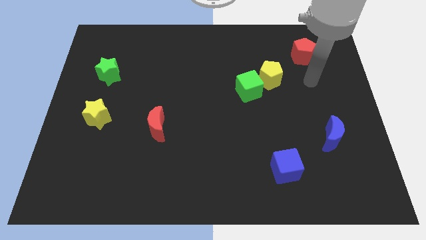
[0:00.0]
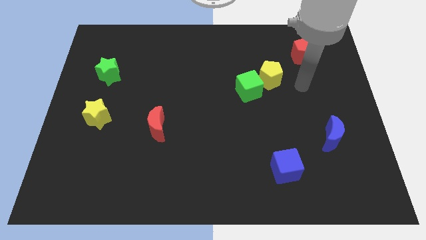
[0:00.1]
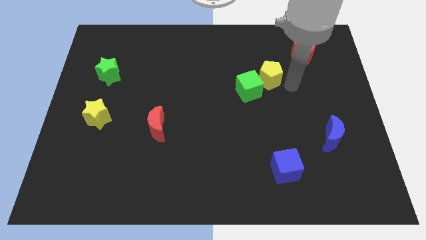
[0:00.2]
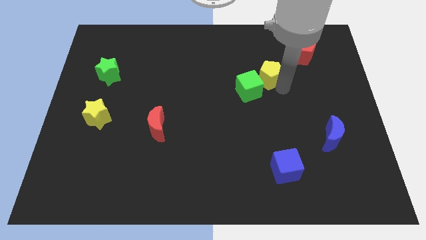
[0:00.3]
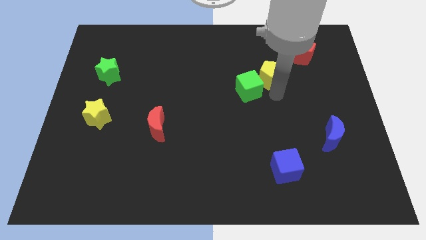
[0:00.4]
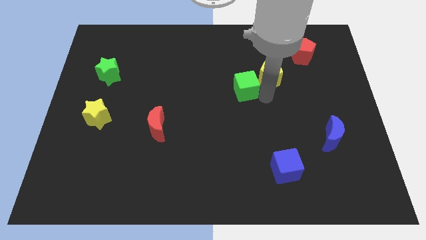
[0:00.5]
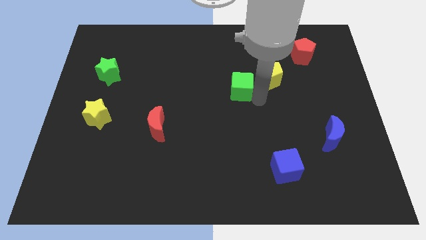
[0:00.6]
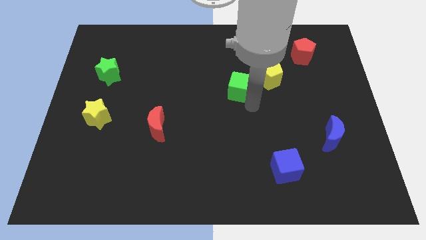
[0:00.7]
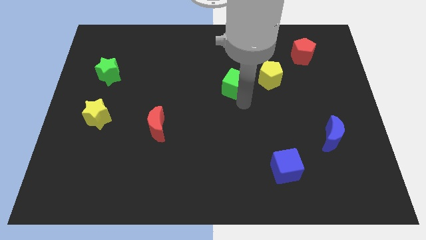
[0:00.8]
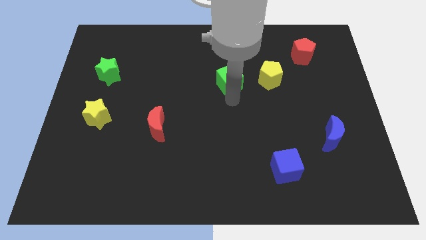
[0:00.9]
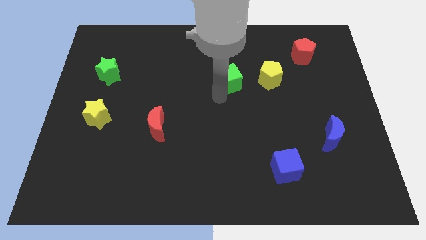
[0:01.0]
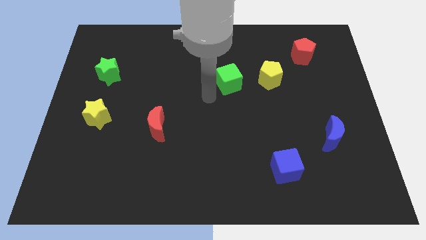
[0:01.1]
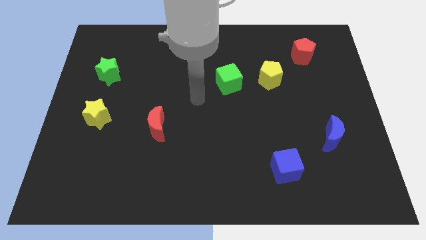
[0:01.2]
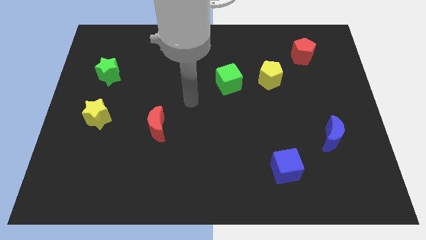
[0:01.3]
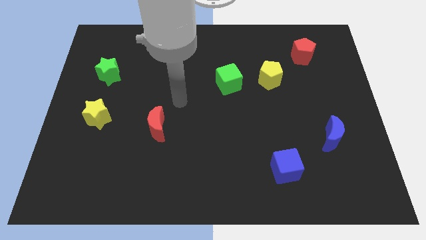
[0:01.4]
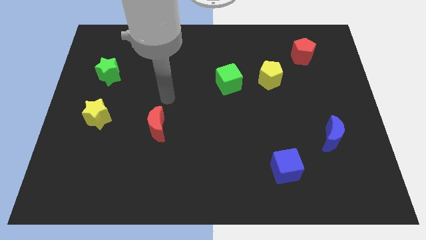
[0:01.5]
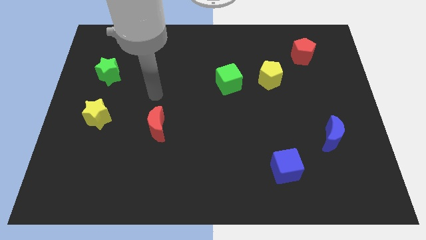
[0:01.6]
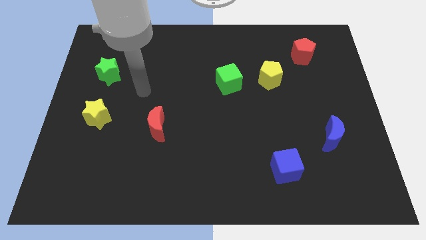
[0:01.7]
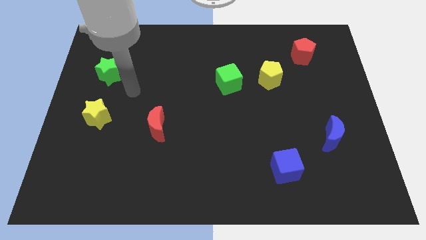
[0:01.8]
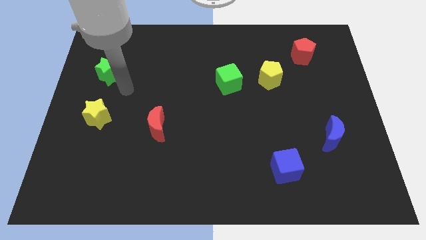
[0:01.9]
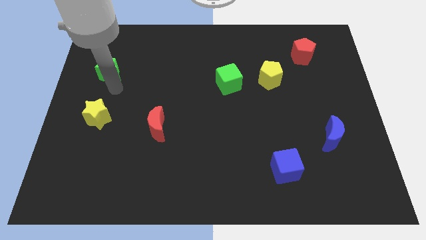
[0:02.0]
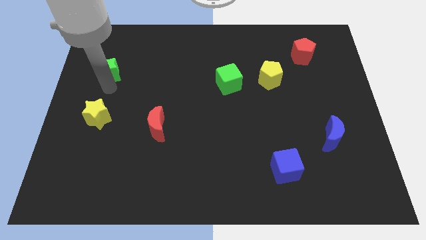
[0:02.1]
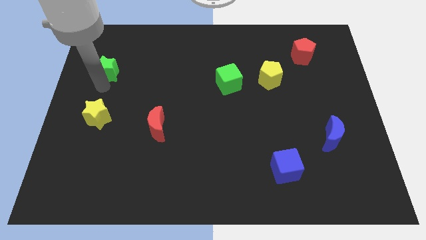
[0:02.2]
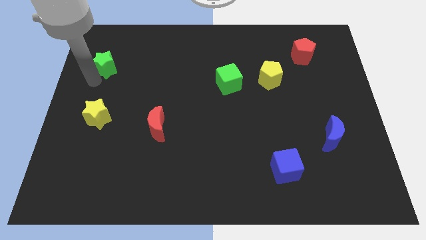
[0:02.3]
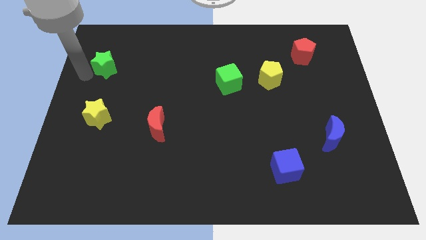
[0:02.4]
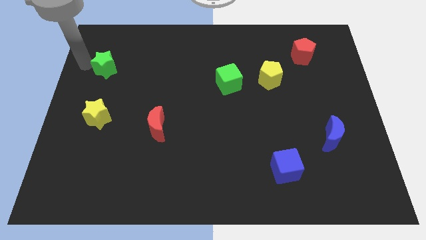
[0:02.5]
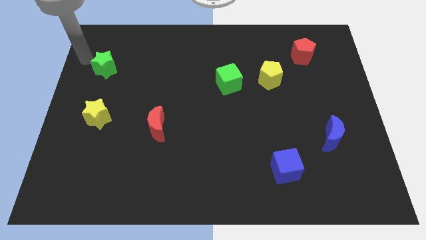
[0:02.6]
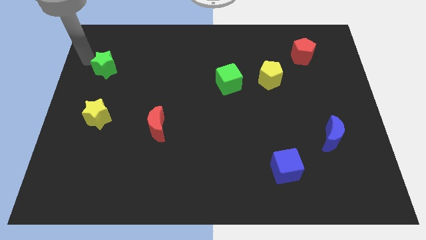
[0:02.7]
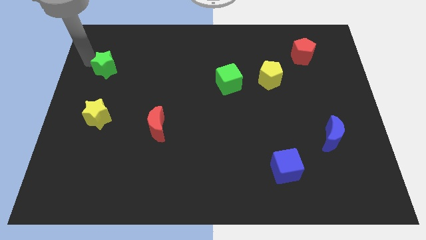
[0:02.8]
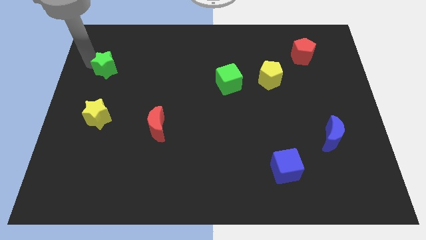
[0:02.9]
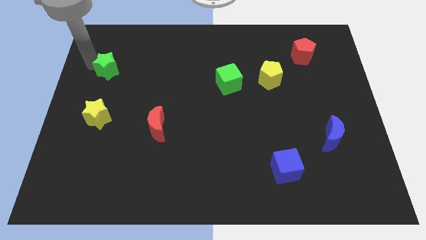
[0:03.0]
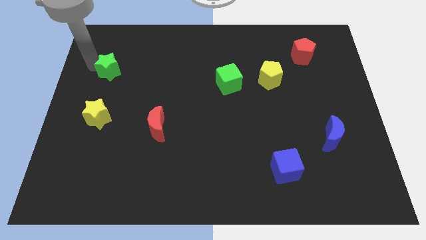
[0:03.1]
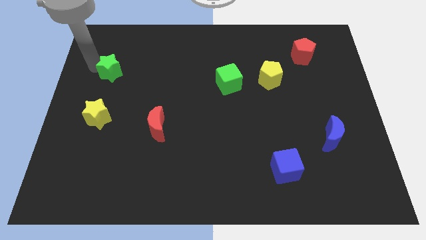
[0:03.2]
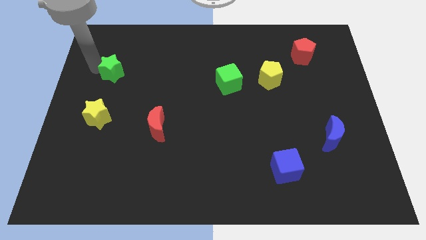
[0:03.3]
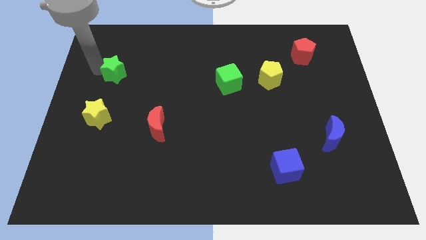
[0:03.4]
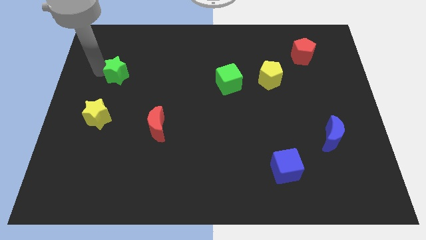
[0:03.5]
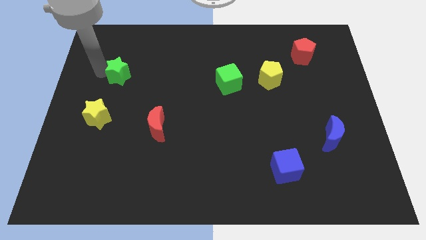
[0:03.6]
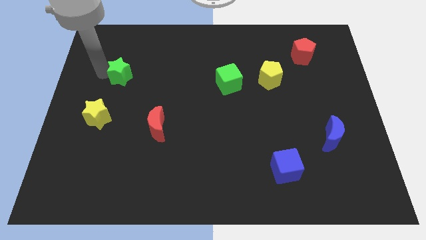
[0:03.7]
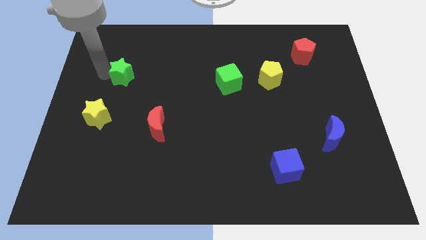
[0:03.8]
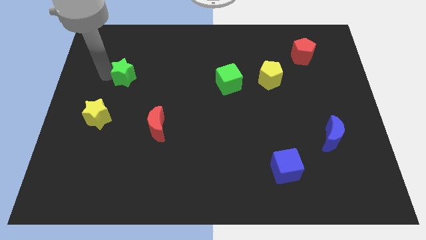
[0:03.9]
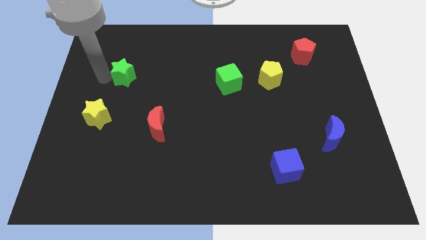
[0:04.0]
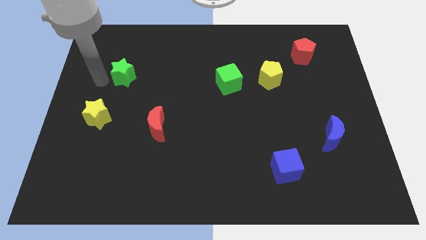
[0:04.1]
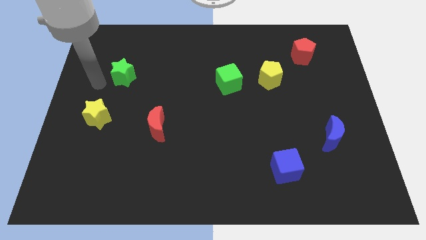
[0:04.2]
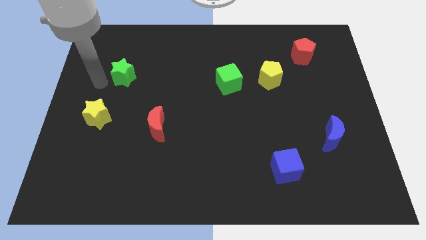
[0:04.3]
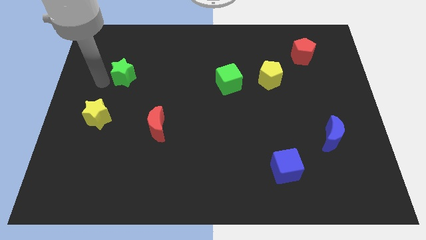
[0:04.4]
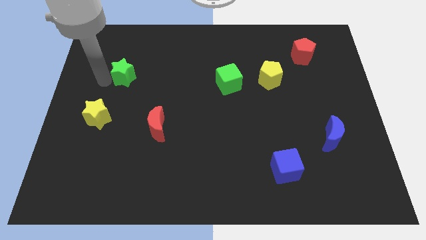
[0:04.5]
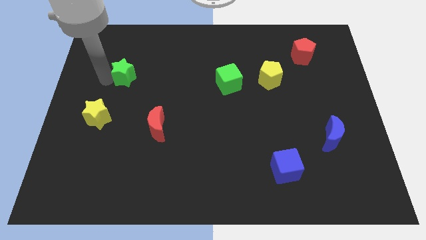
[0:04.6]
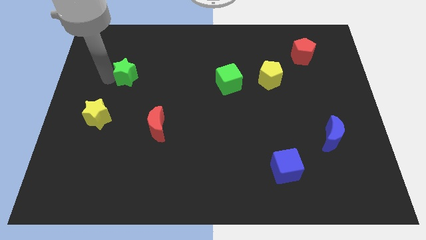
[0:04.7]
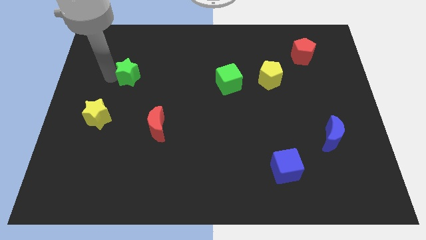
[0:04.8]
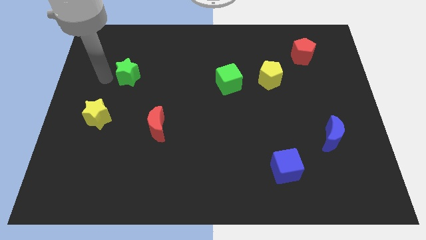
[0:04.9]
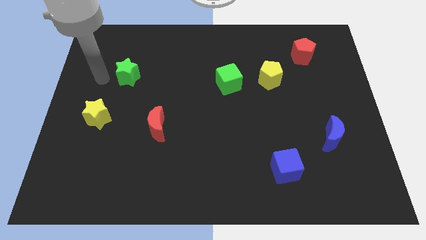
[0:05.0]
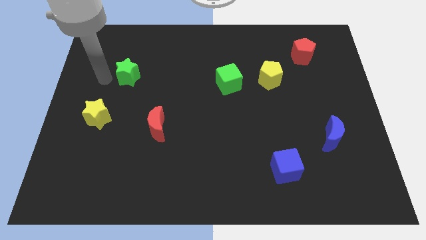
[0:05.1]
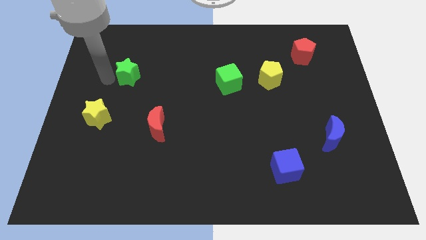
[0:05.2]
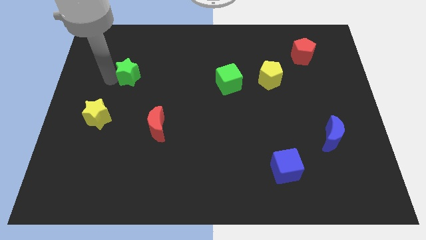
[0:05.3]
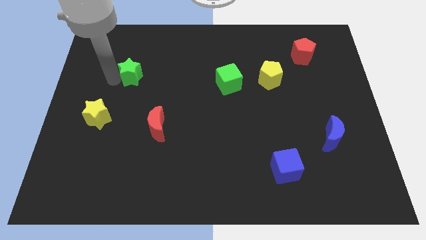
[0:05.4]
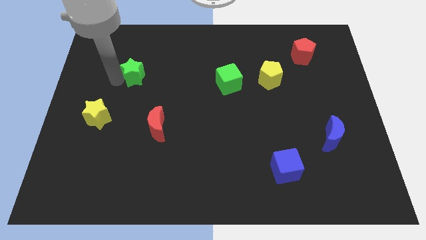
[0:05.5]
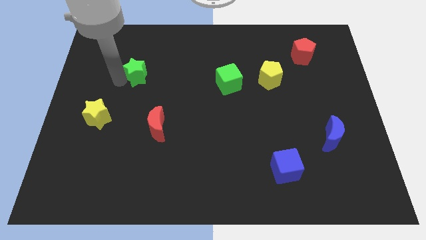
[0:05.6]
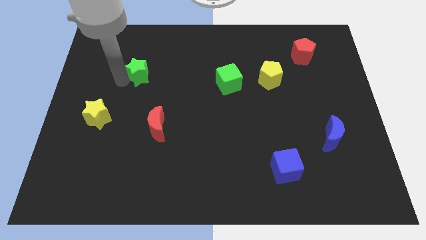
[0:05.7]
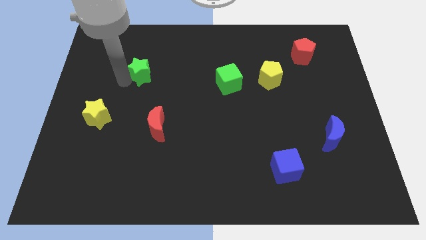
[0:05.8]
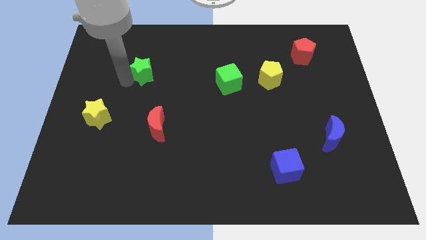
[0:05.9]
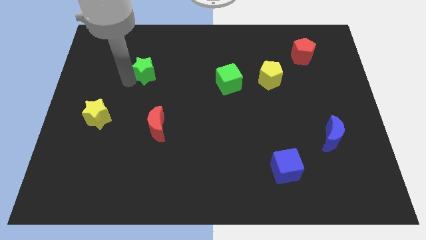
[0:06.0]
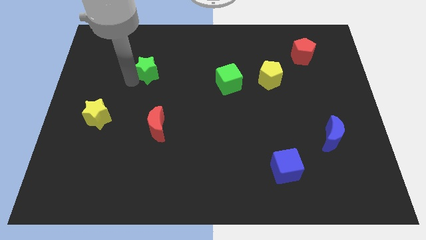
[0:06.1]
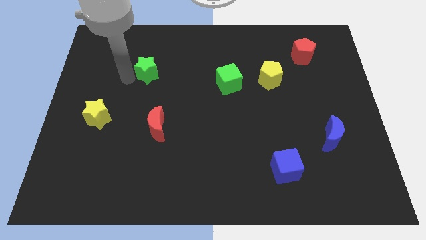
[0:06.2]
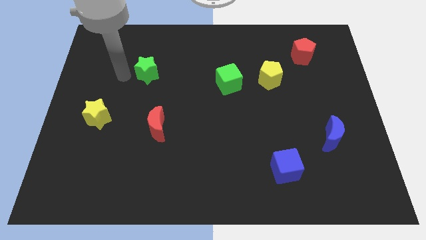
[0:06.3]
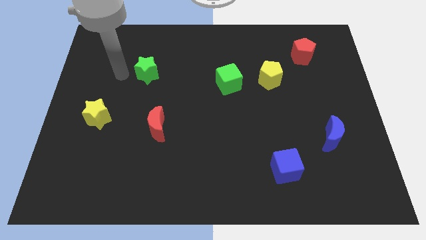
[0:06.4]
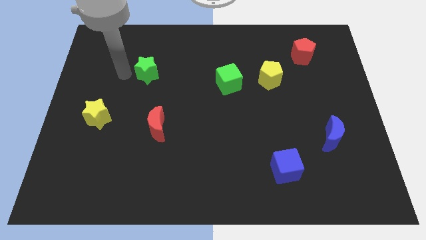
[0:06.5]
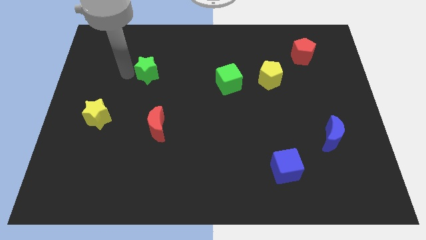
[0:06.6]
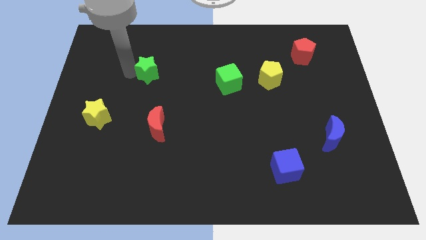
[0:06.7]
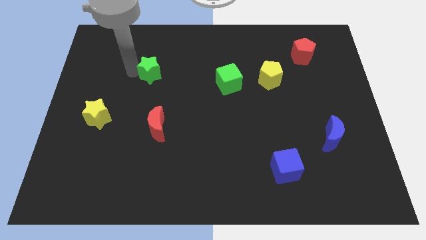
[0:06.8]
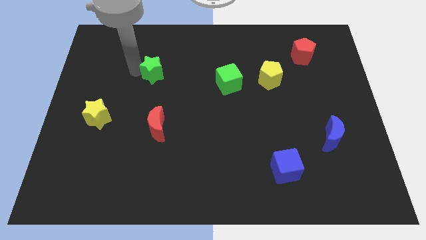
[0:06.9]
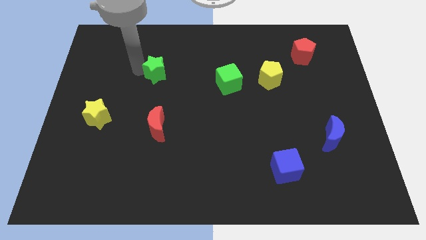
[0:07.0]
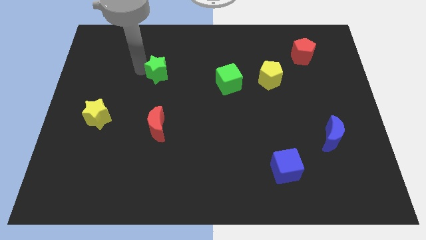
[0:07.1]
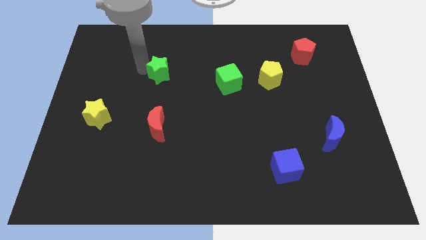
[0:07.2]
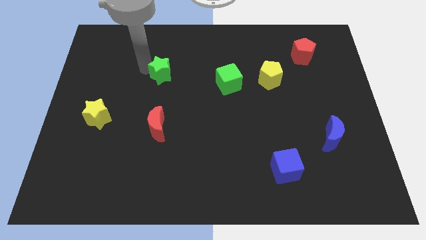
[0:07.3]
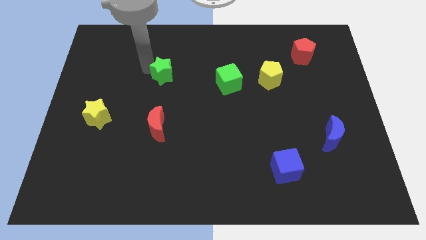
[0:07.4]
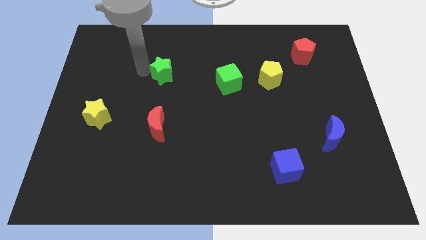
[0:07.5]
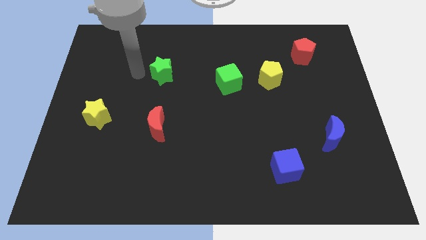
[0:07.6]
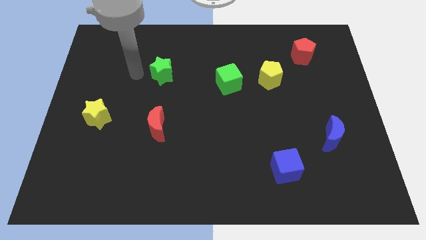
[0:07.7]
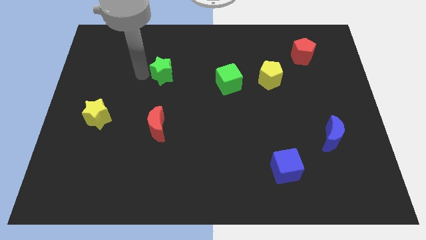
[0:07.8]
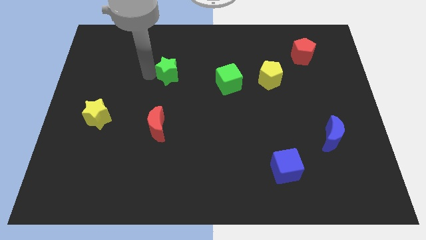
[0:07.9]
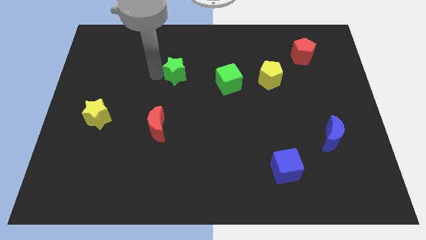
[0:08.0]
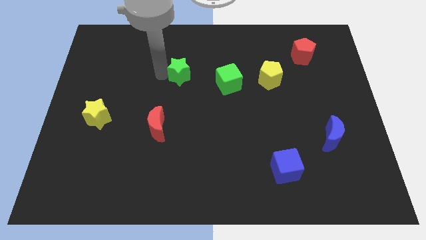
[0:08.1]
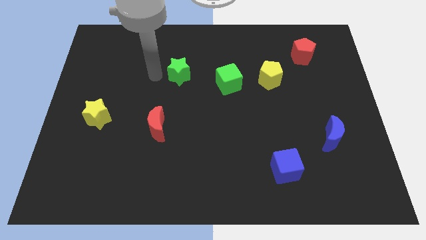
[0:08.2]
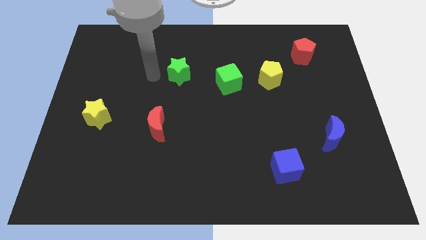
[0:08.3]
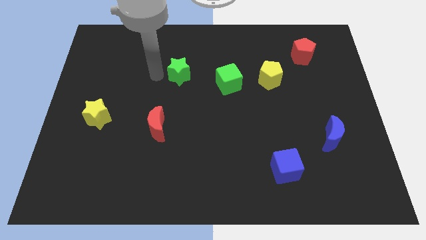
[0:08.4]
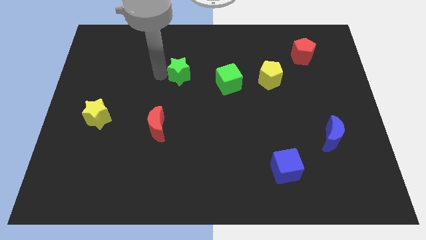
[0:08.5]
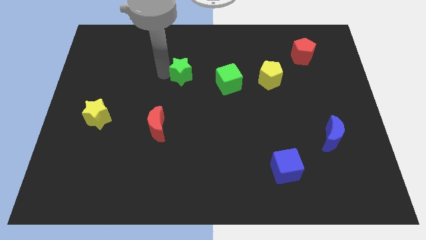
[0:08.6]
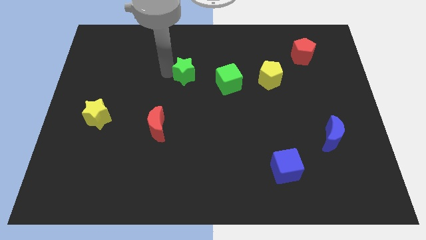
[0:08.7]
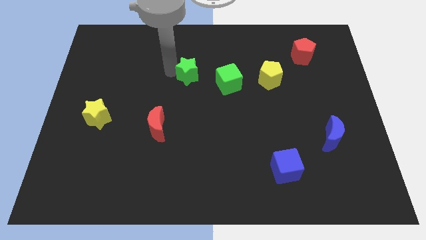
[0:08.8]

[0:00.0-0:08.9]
move the green star right
